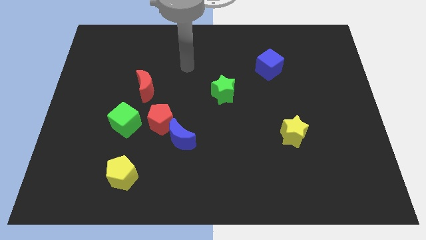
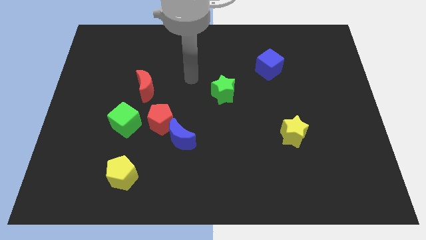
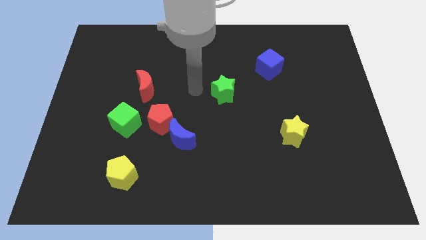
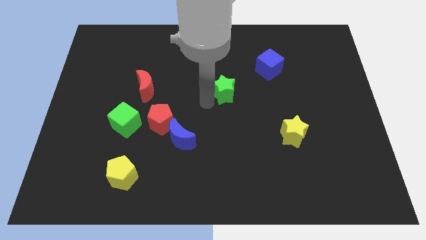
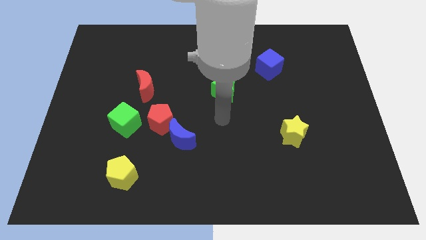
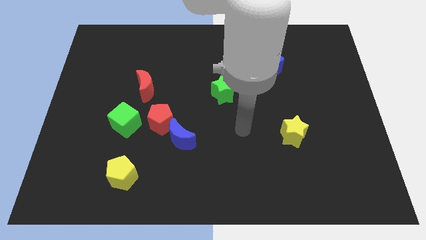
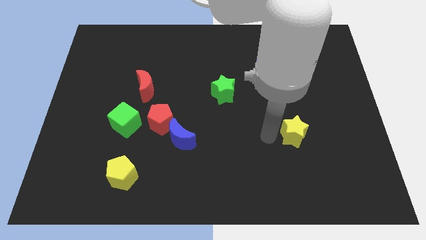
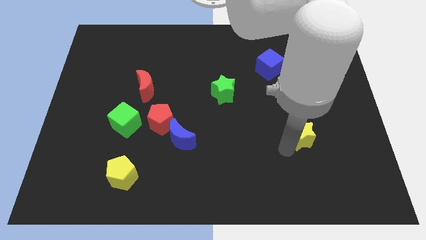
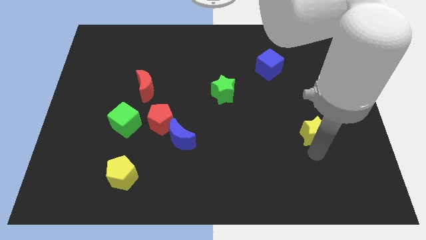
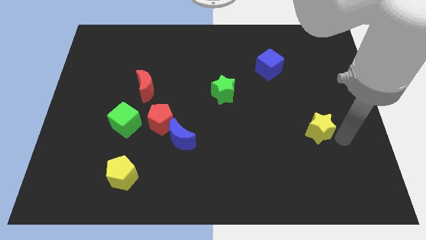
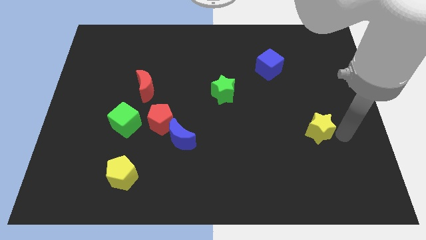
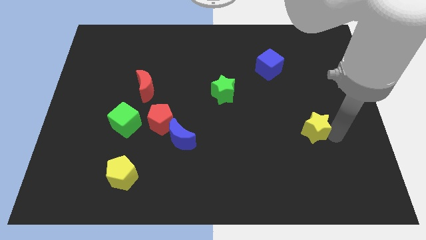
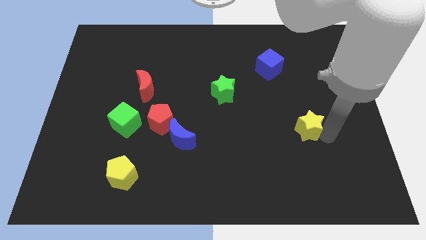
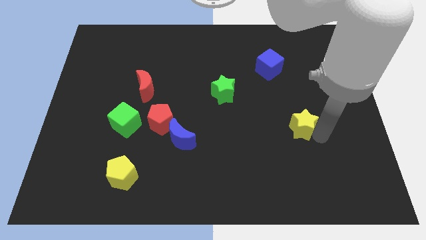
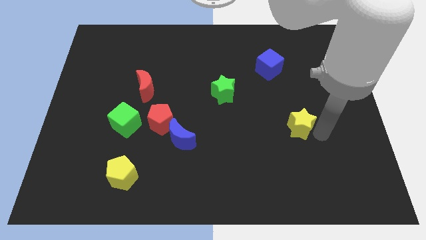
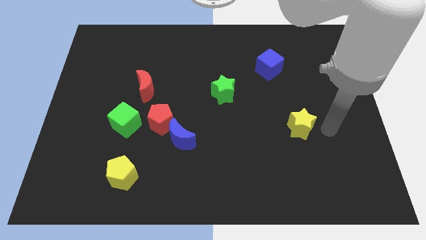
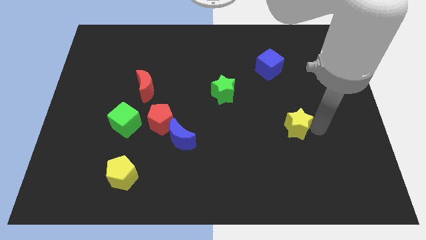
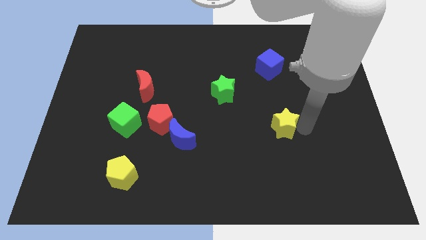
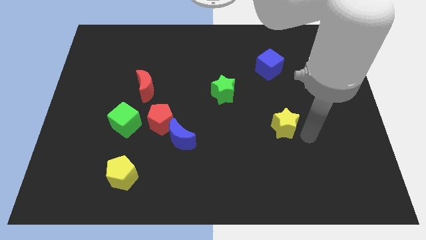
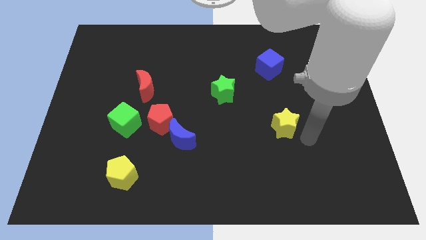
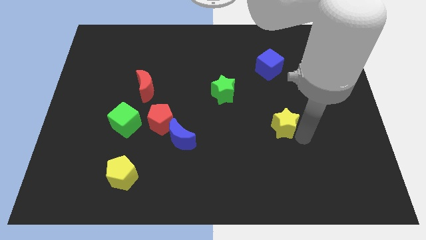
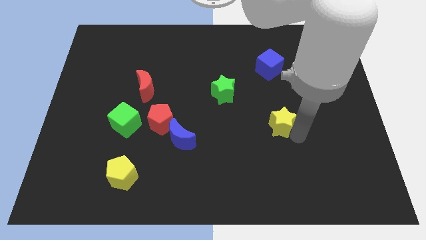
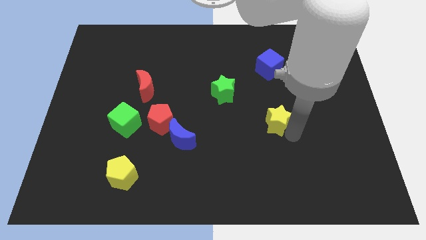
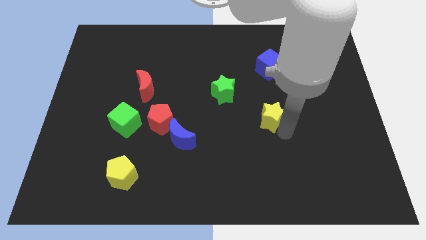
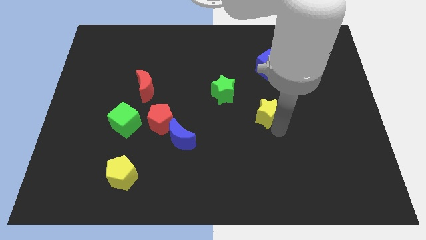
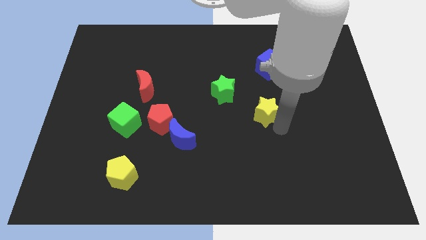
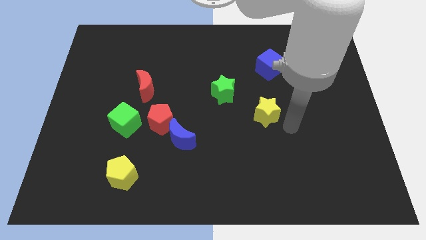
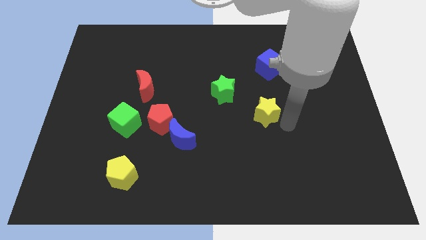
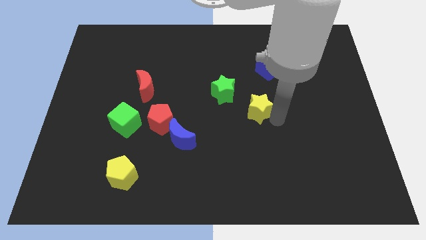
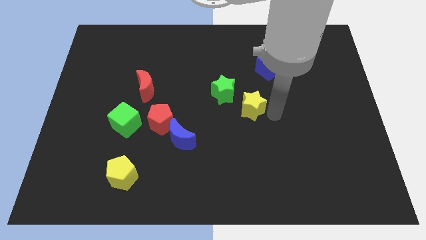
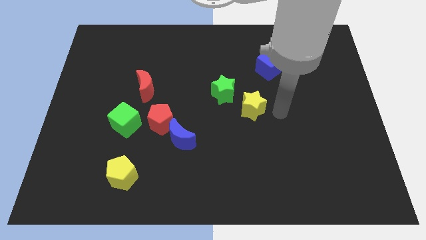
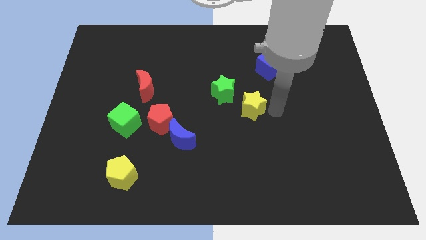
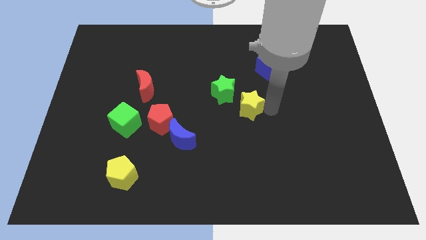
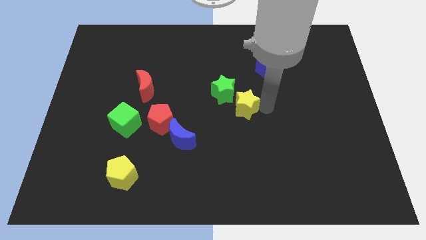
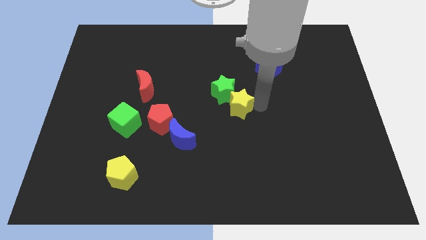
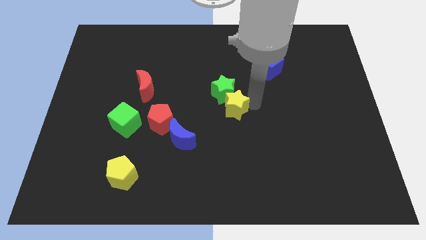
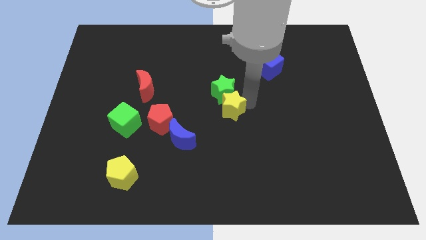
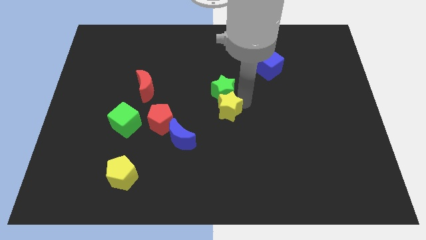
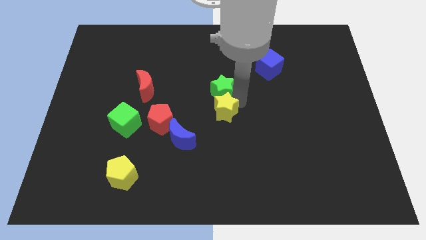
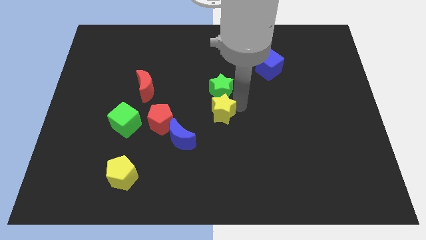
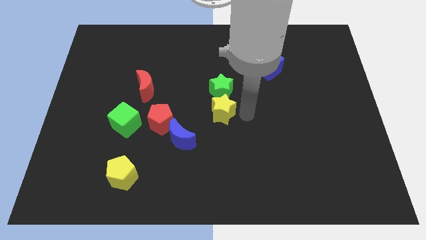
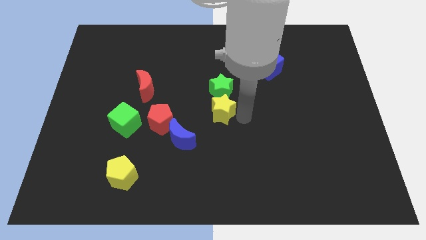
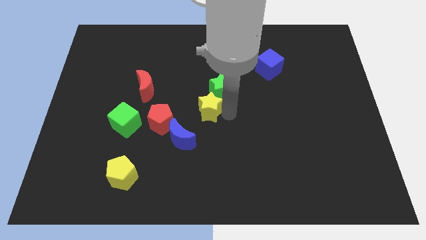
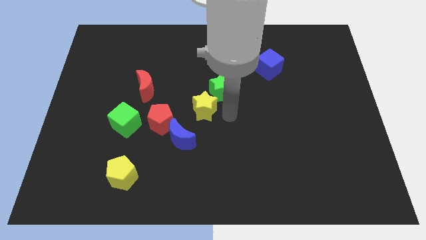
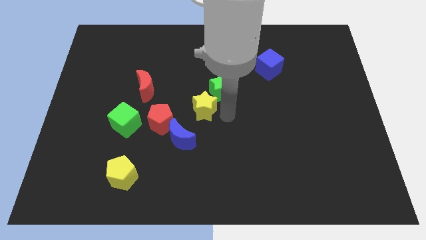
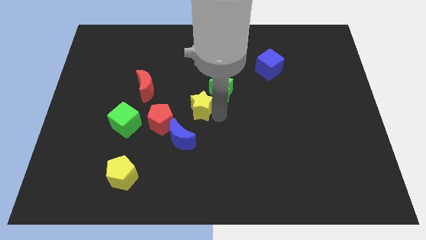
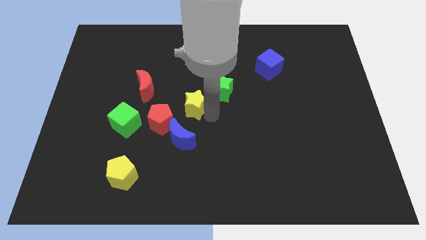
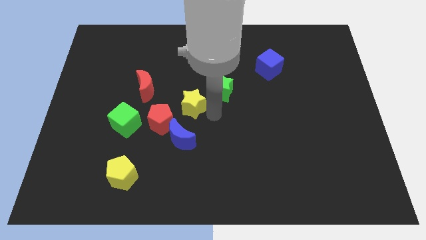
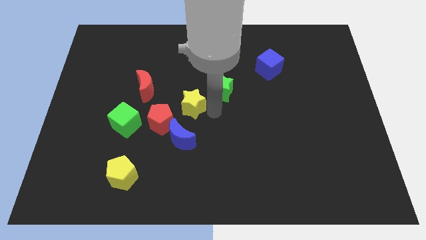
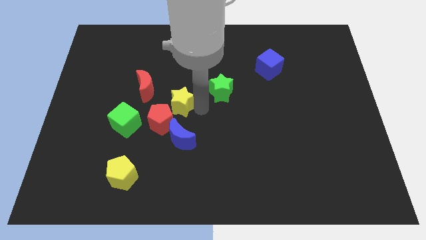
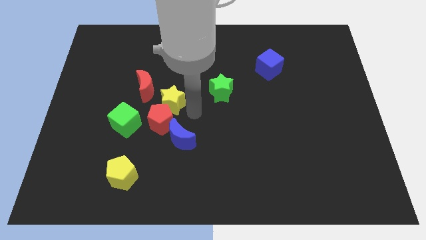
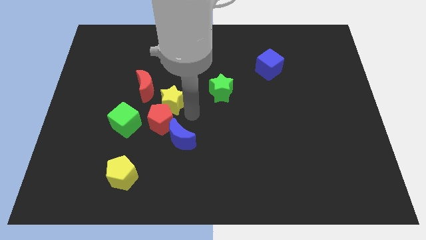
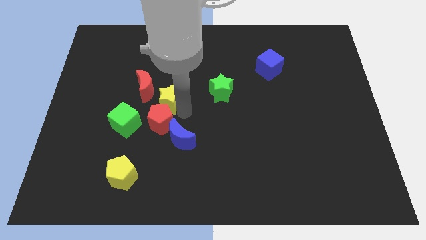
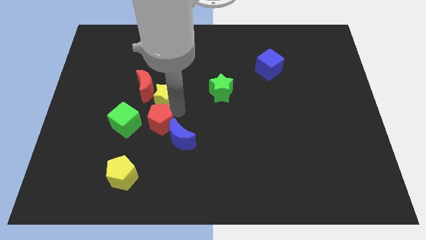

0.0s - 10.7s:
push the yellow star to the red moon

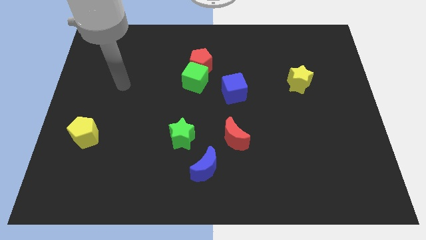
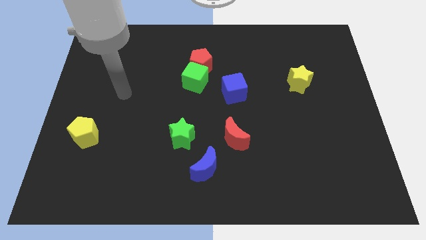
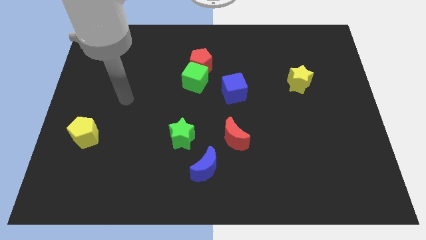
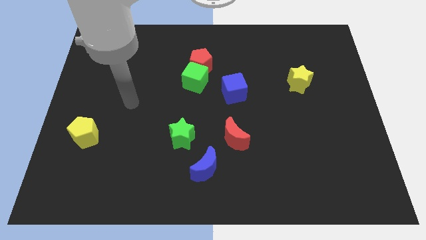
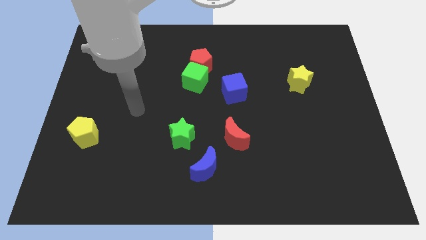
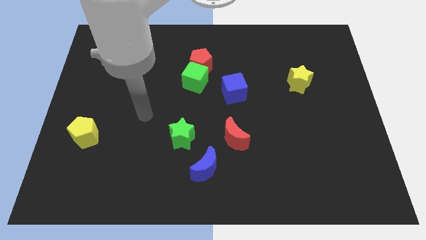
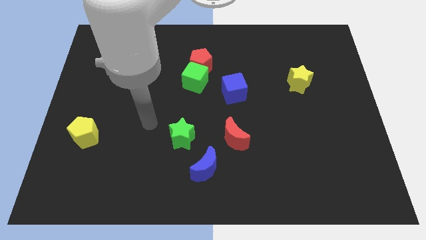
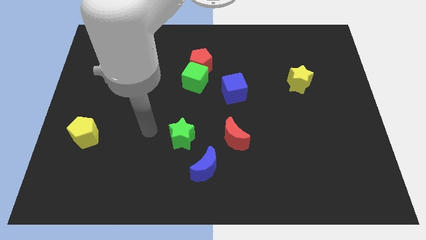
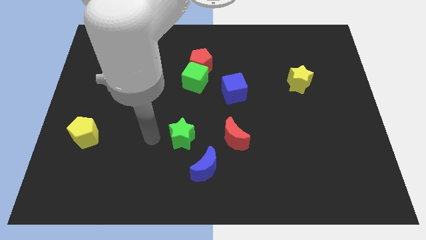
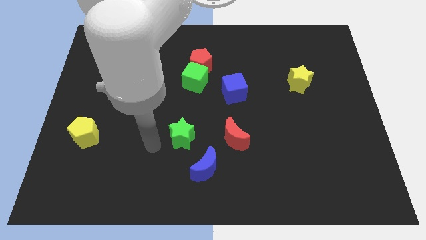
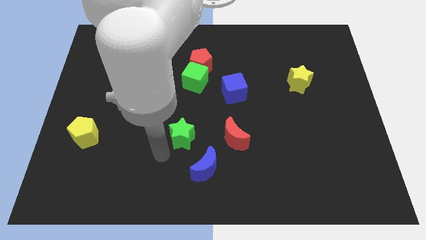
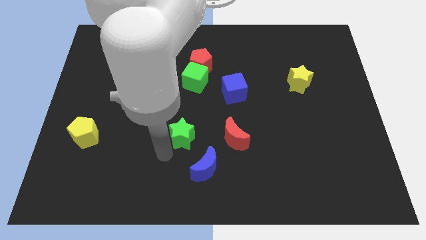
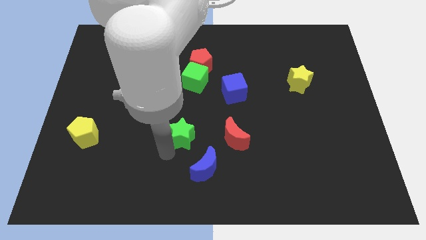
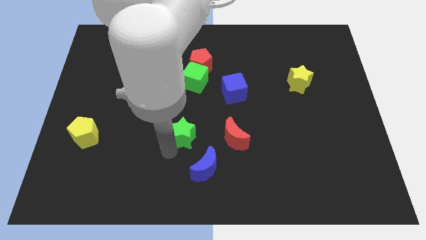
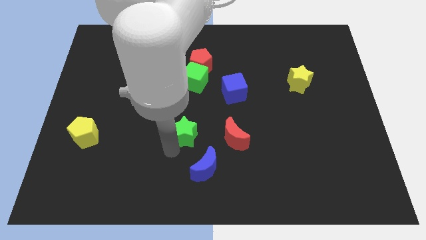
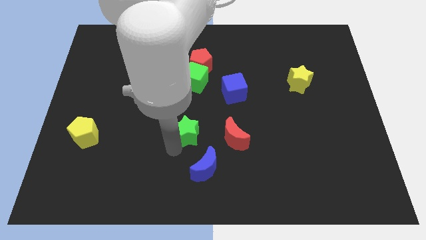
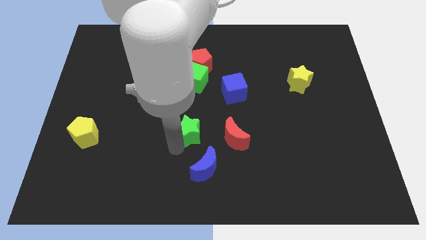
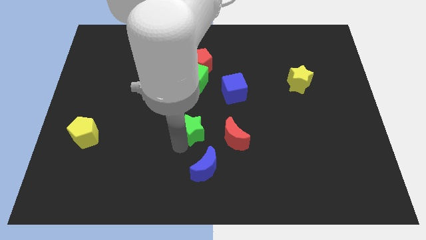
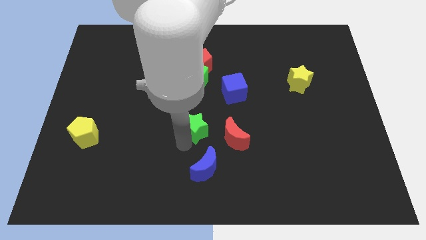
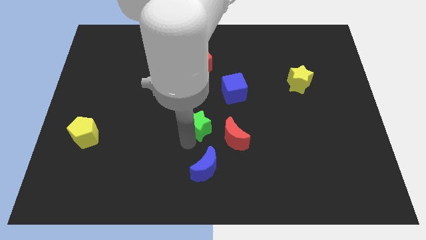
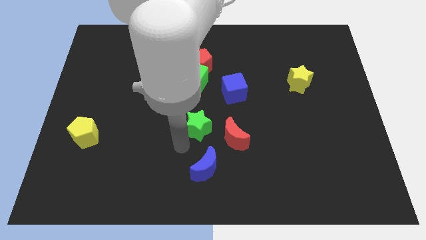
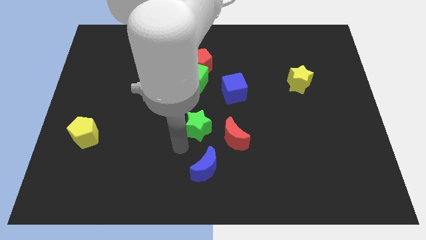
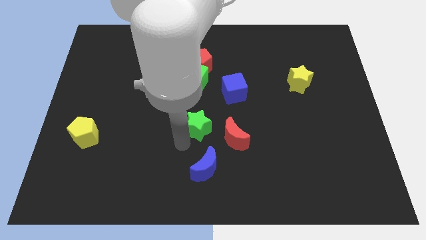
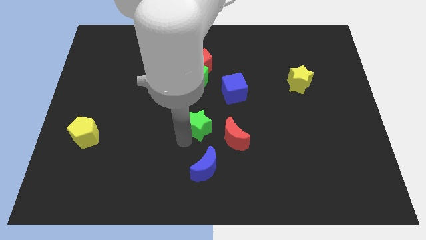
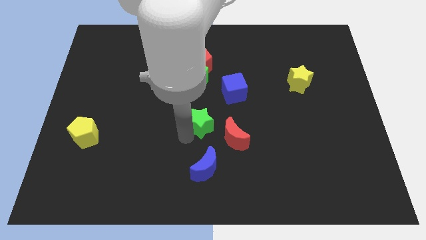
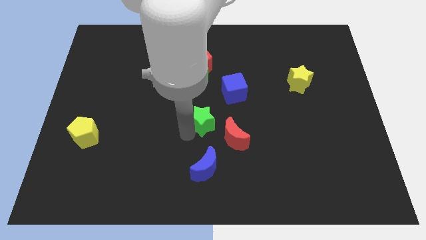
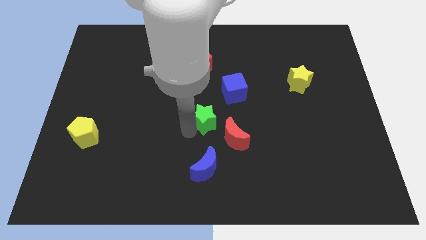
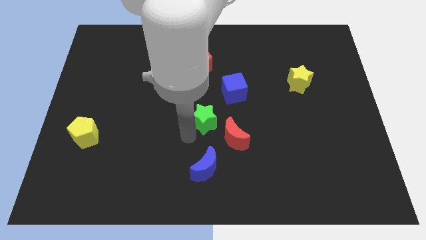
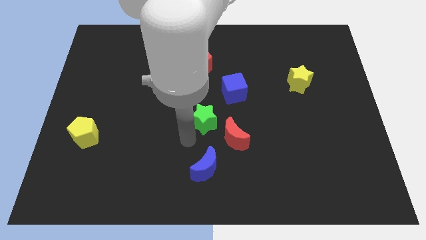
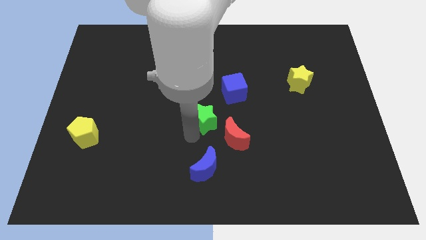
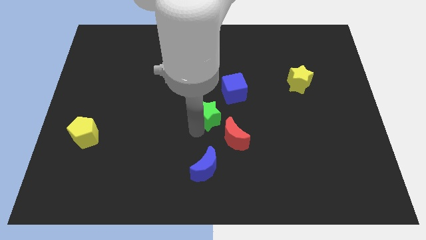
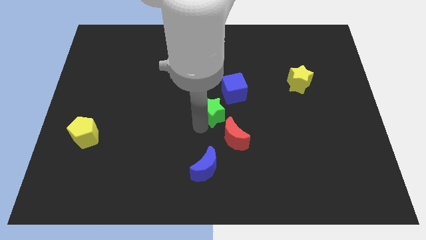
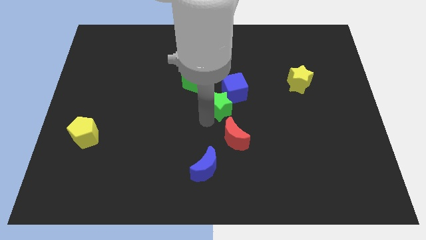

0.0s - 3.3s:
put the green star to the blue cube
